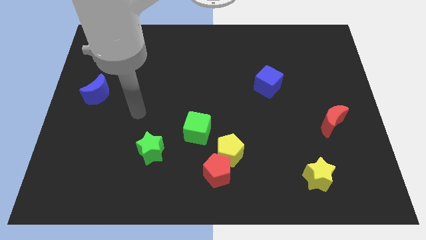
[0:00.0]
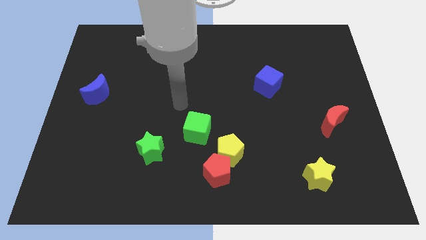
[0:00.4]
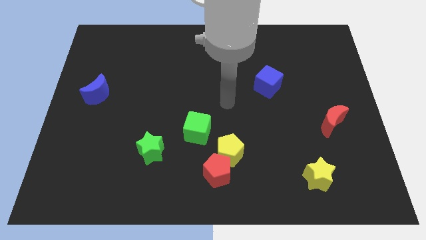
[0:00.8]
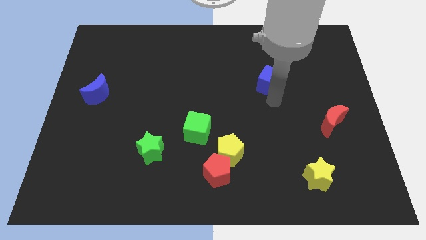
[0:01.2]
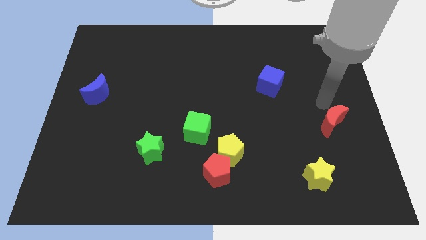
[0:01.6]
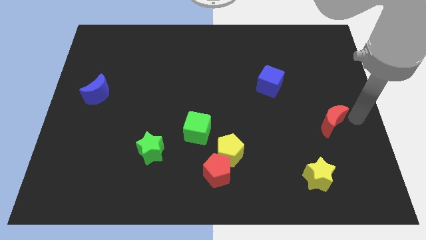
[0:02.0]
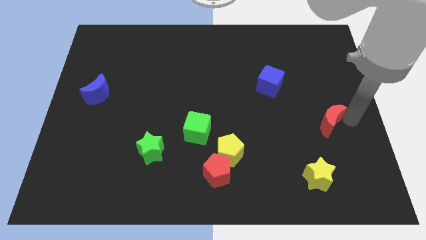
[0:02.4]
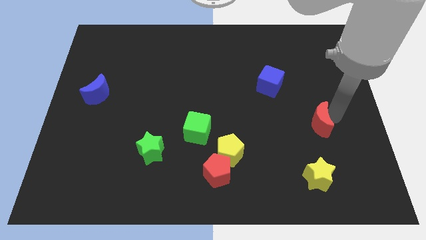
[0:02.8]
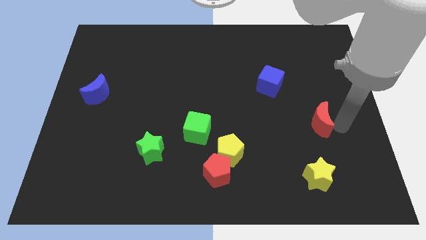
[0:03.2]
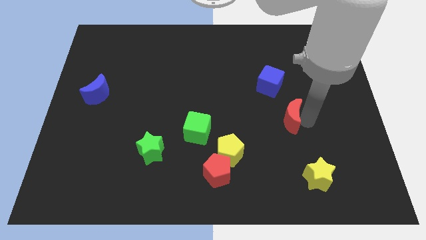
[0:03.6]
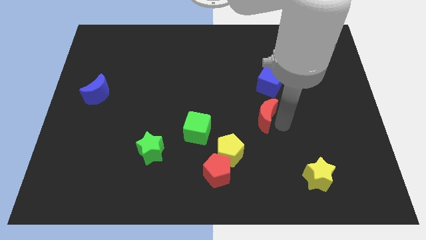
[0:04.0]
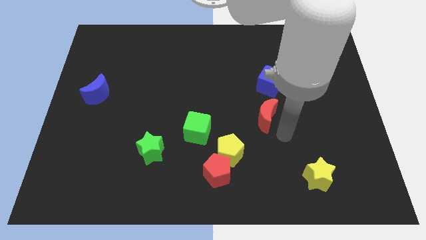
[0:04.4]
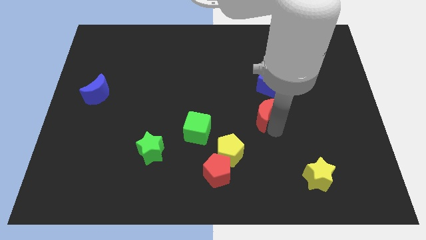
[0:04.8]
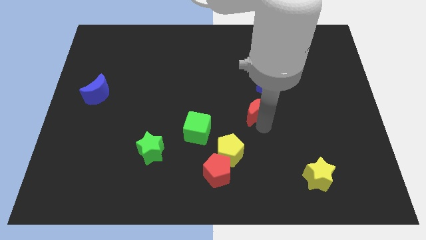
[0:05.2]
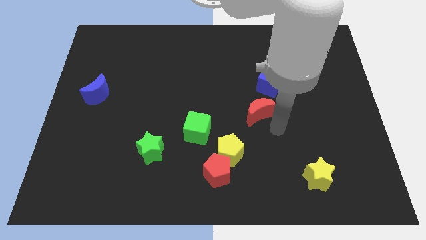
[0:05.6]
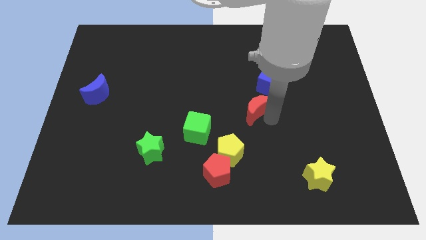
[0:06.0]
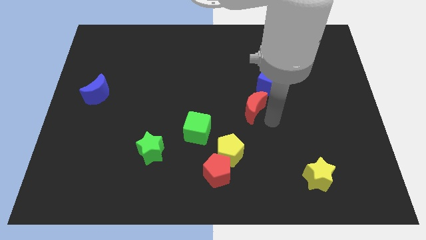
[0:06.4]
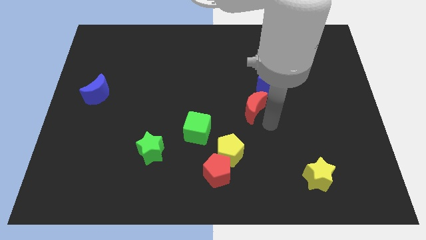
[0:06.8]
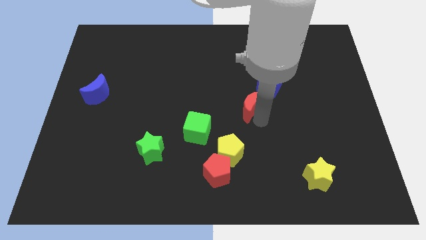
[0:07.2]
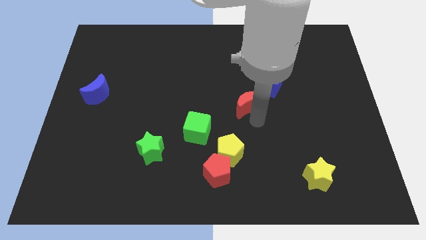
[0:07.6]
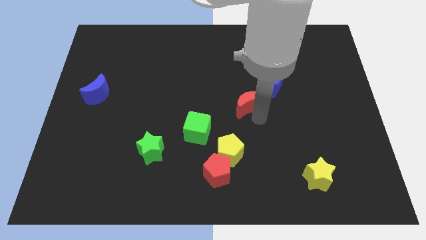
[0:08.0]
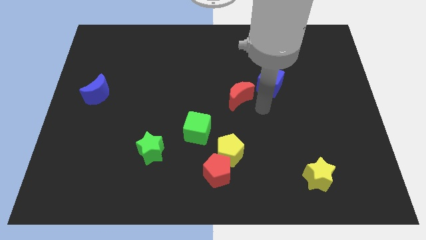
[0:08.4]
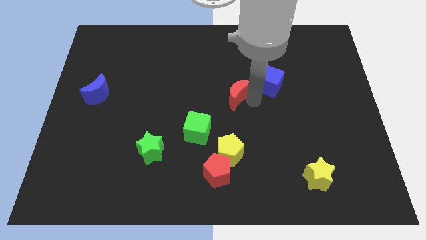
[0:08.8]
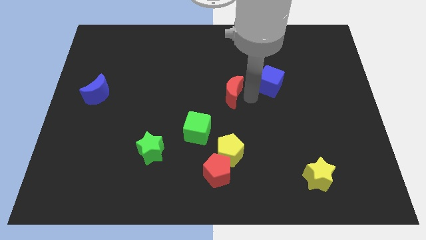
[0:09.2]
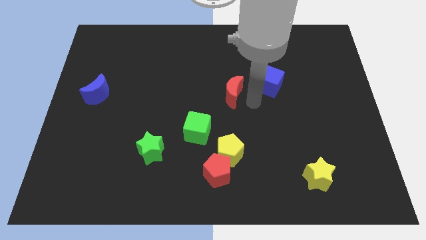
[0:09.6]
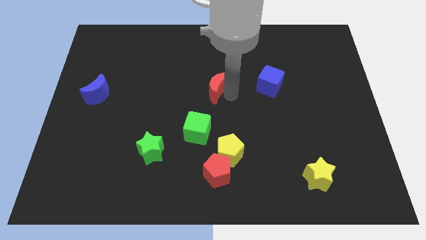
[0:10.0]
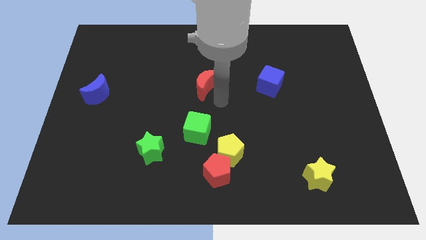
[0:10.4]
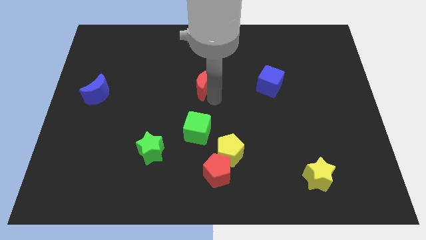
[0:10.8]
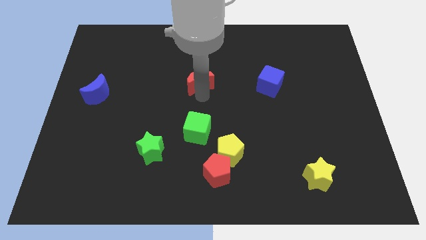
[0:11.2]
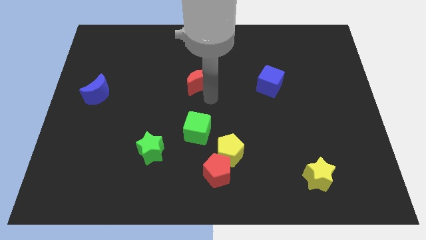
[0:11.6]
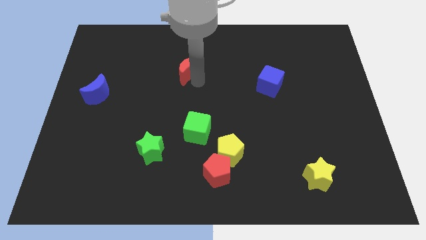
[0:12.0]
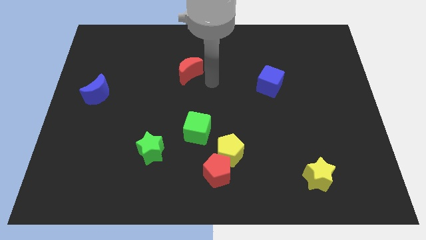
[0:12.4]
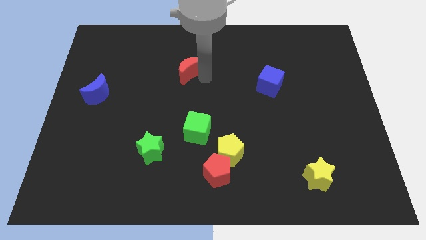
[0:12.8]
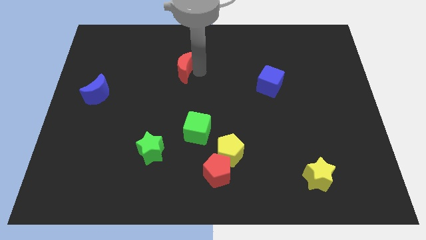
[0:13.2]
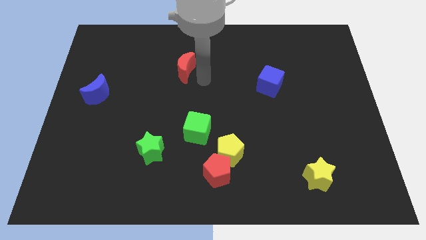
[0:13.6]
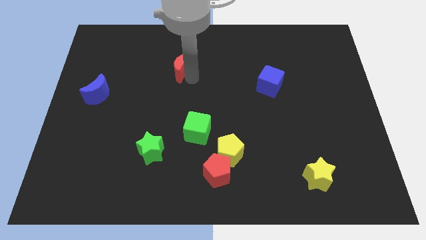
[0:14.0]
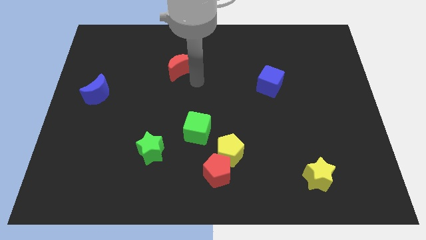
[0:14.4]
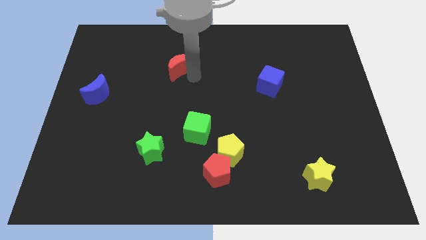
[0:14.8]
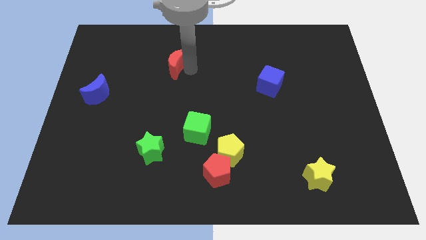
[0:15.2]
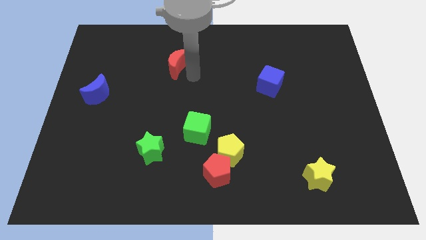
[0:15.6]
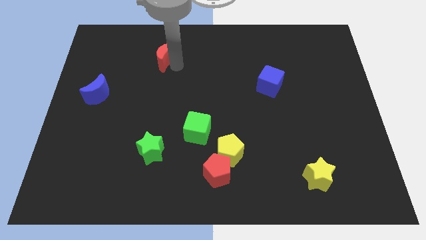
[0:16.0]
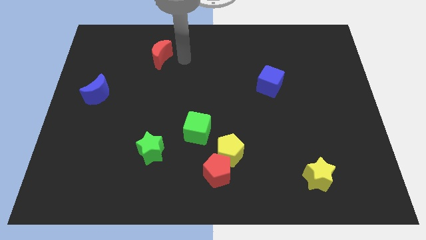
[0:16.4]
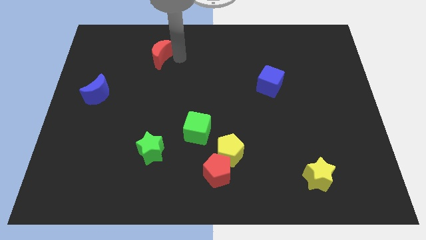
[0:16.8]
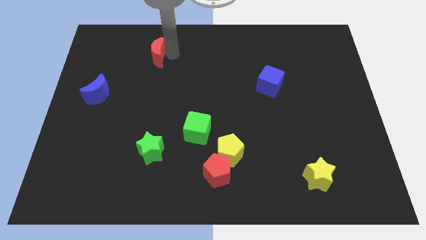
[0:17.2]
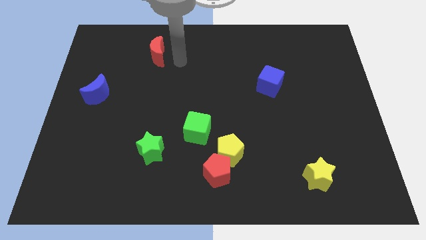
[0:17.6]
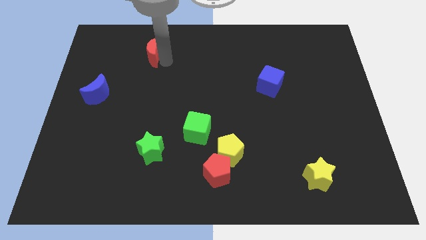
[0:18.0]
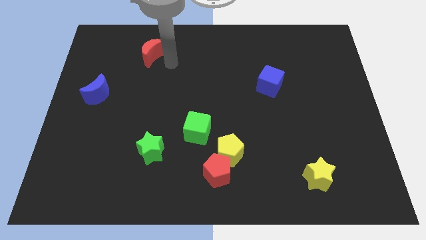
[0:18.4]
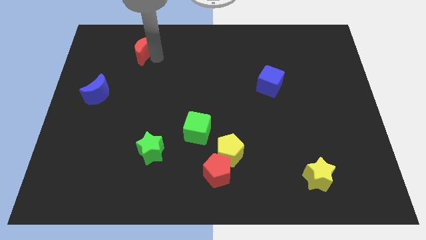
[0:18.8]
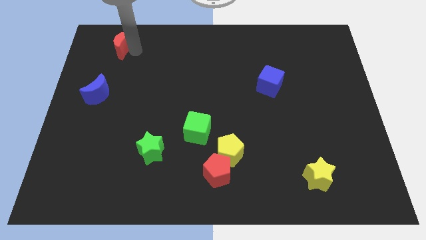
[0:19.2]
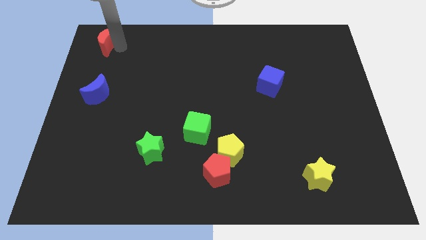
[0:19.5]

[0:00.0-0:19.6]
push the red moon to the top left
